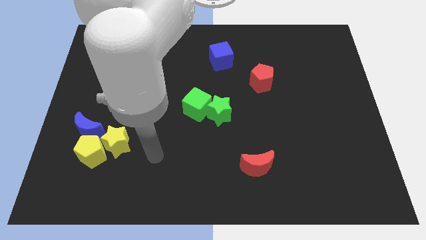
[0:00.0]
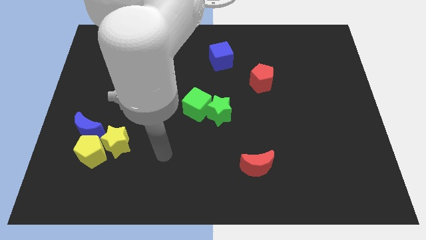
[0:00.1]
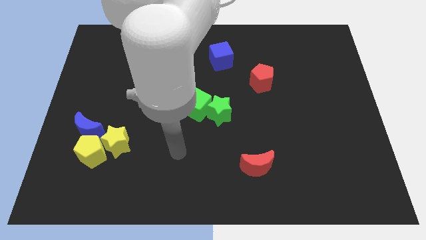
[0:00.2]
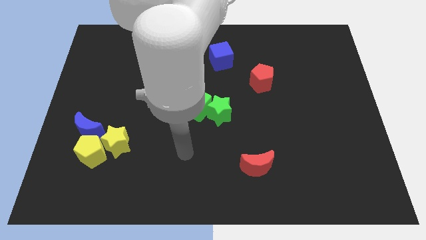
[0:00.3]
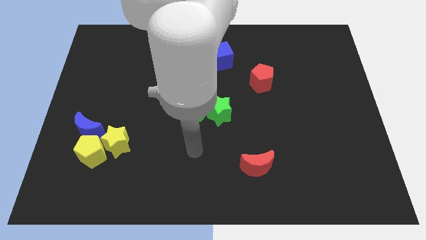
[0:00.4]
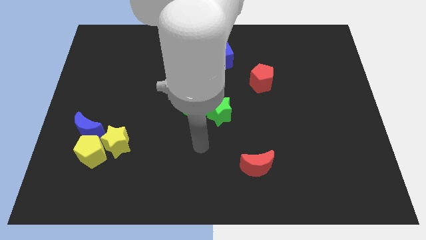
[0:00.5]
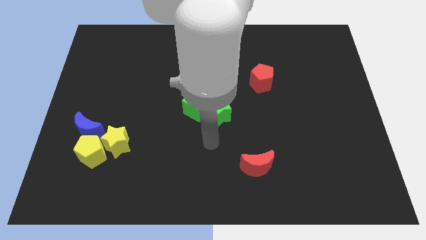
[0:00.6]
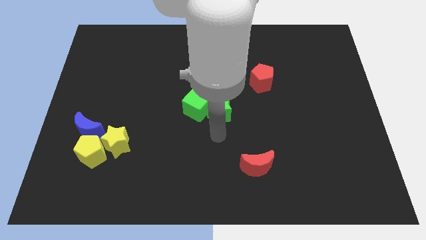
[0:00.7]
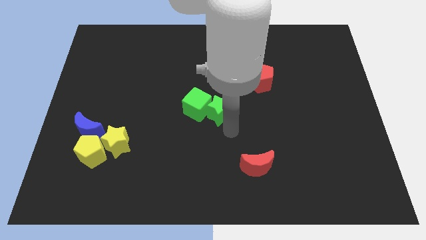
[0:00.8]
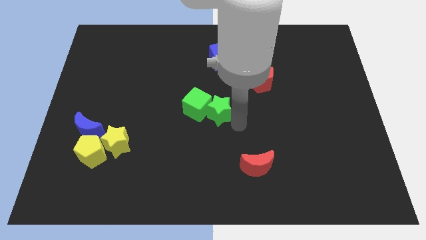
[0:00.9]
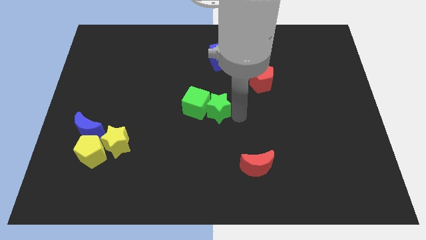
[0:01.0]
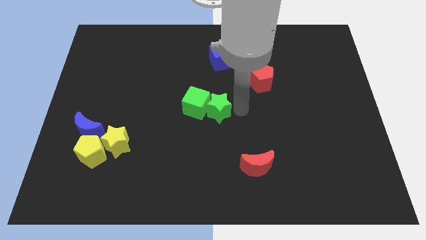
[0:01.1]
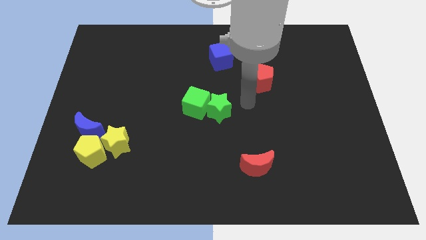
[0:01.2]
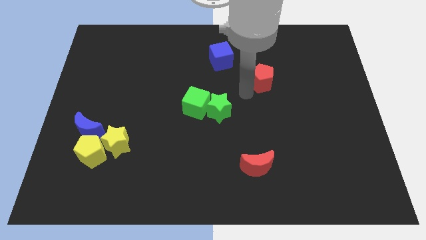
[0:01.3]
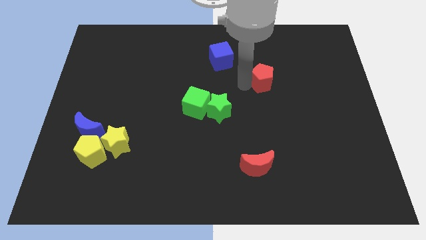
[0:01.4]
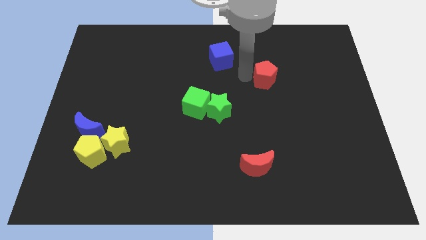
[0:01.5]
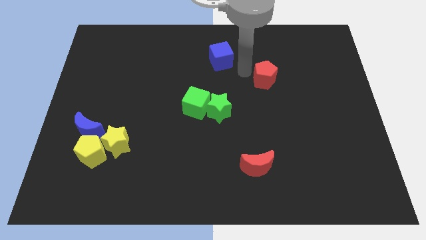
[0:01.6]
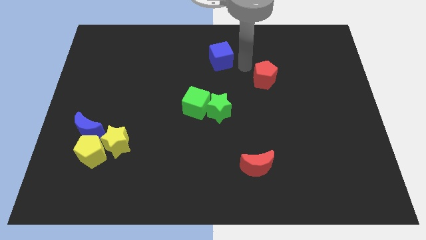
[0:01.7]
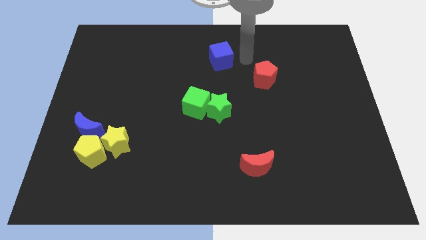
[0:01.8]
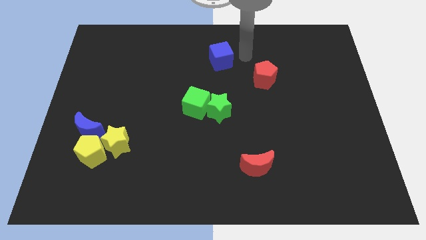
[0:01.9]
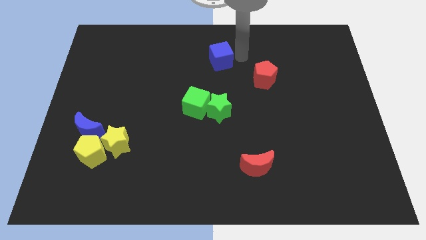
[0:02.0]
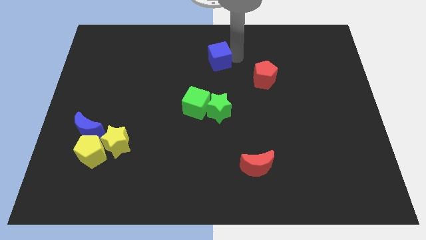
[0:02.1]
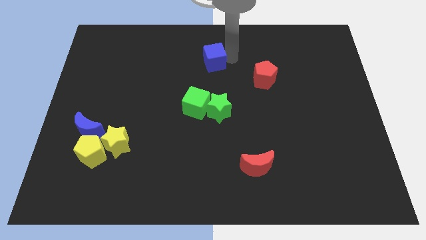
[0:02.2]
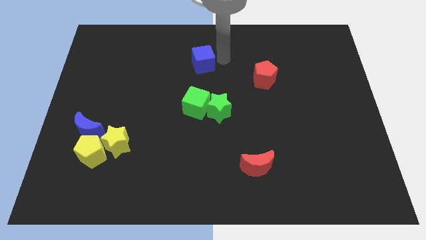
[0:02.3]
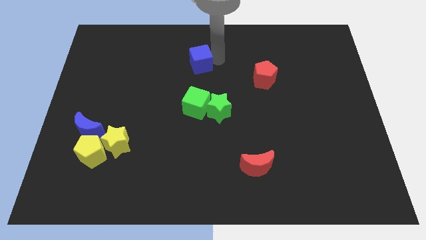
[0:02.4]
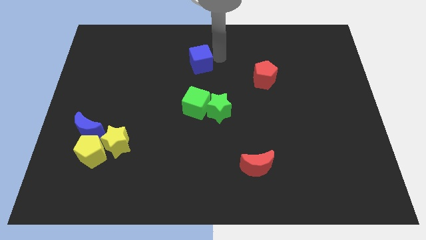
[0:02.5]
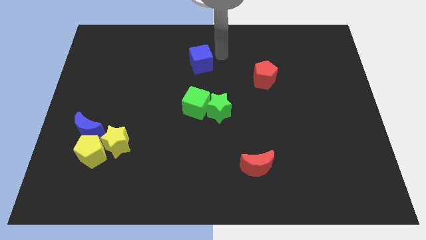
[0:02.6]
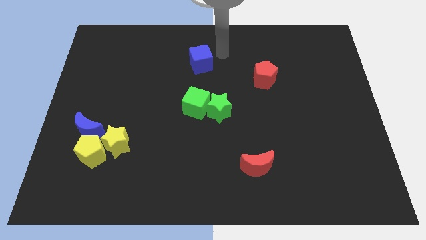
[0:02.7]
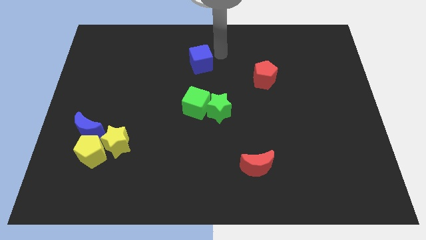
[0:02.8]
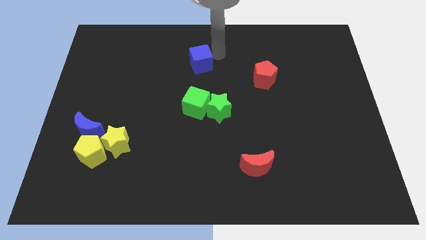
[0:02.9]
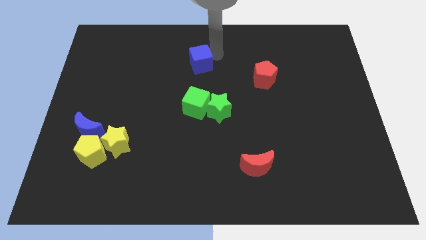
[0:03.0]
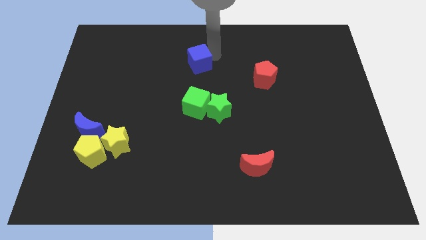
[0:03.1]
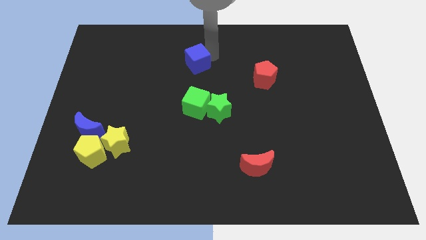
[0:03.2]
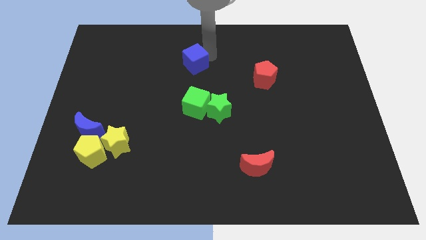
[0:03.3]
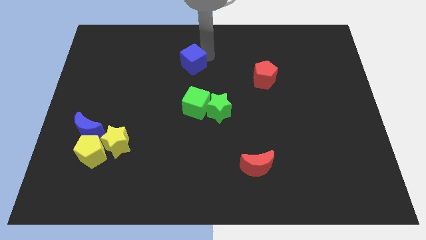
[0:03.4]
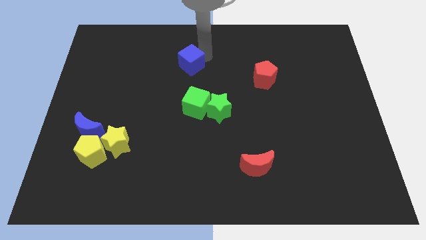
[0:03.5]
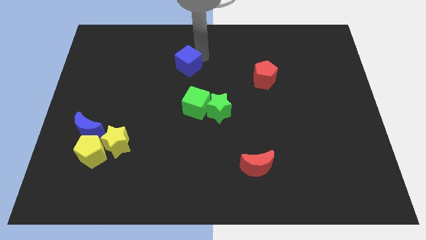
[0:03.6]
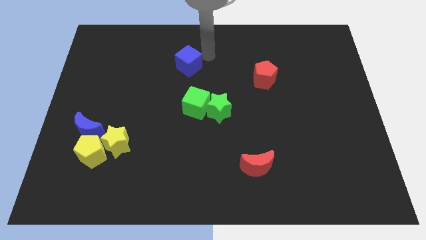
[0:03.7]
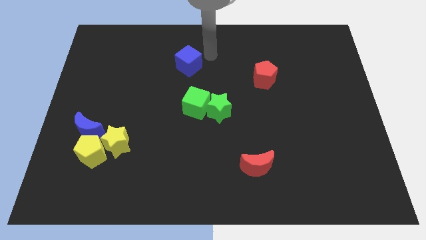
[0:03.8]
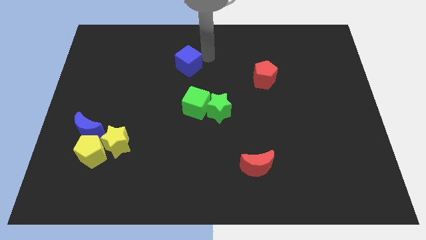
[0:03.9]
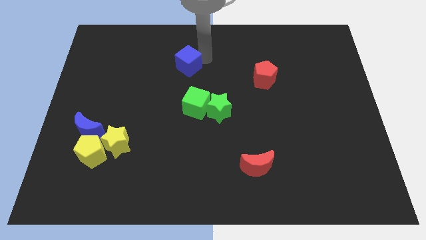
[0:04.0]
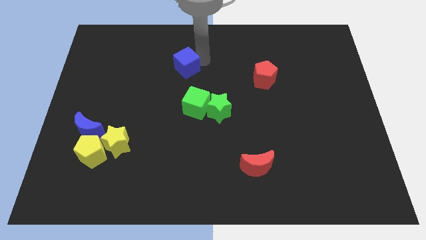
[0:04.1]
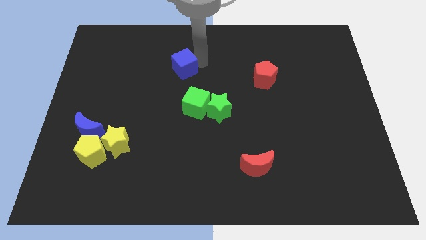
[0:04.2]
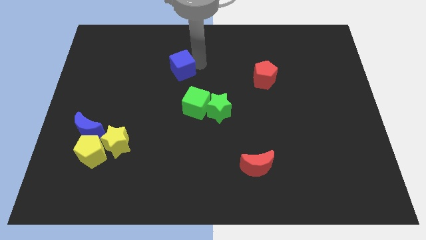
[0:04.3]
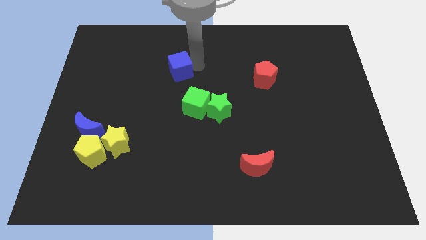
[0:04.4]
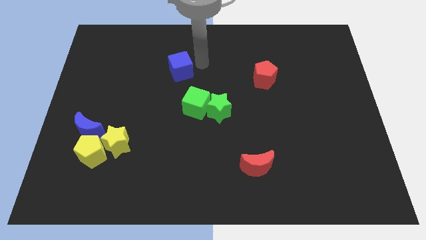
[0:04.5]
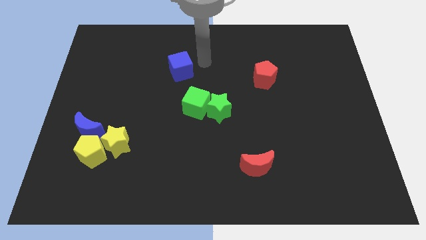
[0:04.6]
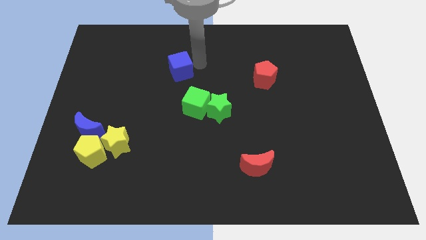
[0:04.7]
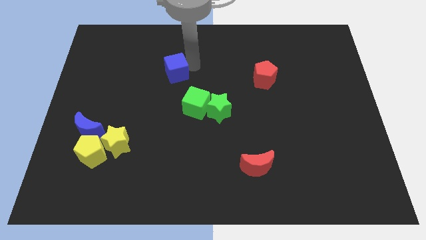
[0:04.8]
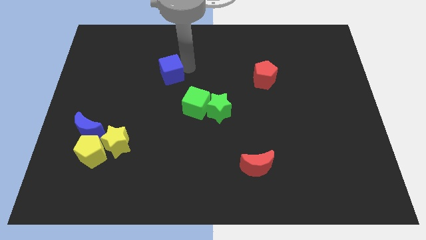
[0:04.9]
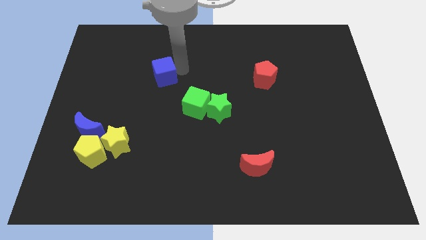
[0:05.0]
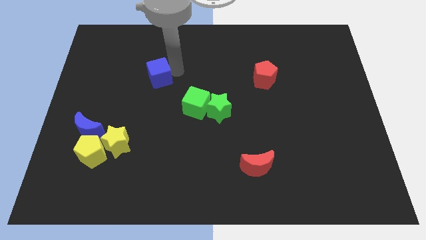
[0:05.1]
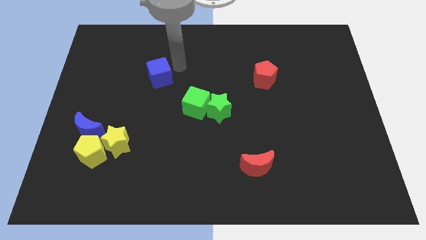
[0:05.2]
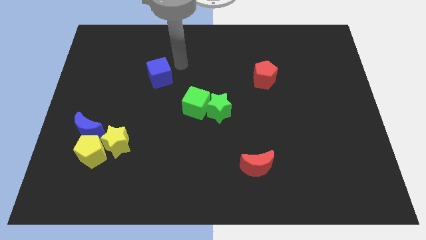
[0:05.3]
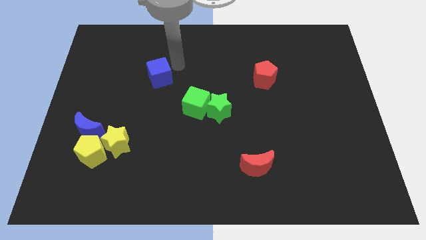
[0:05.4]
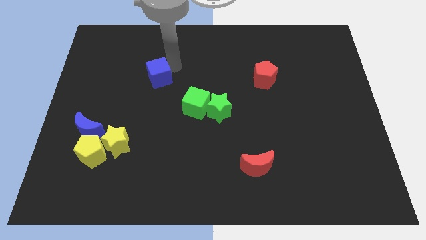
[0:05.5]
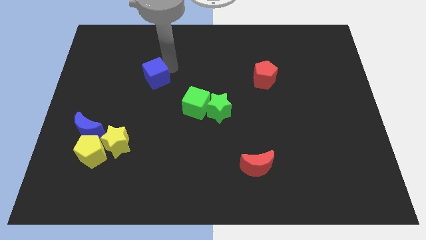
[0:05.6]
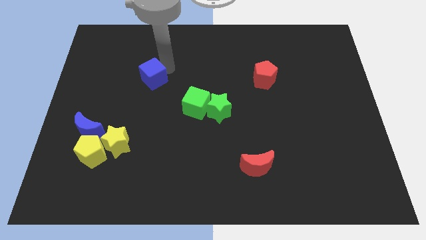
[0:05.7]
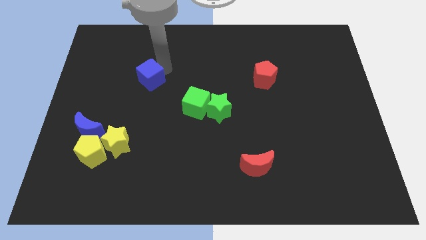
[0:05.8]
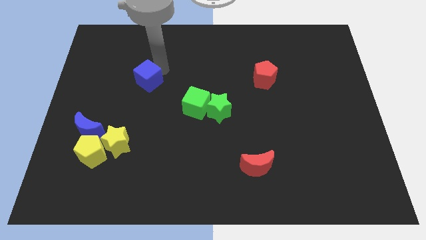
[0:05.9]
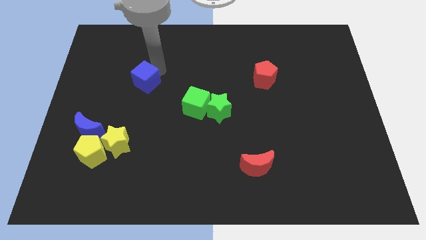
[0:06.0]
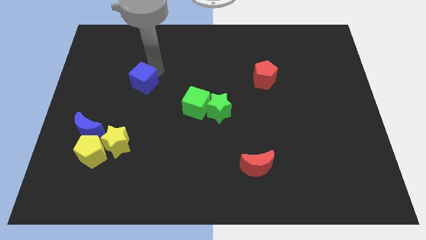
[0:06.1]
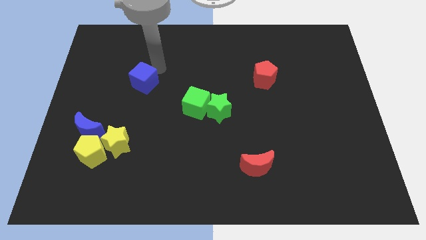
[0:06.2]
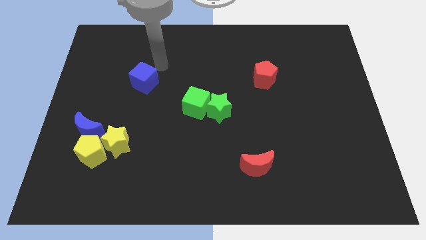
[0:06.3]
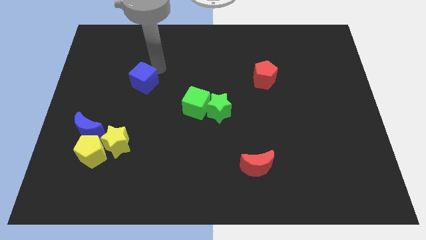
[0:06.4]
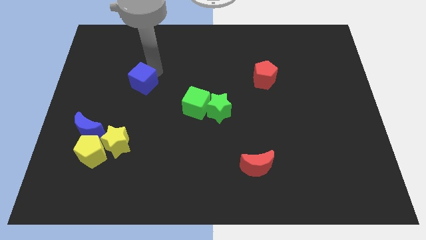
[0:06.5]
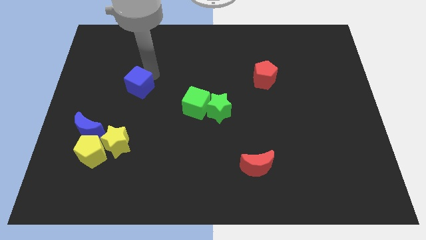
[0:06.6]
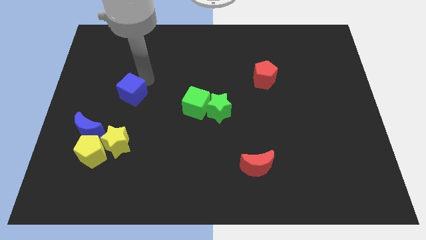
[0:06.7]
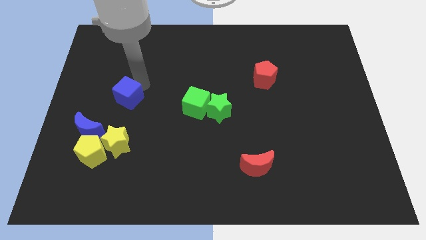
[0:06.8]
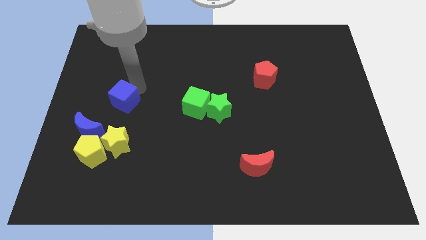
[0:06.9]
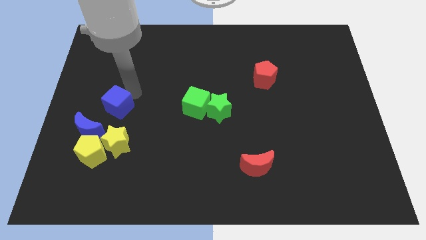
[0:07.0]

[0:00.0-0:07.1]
put the blue cube to the top side of the yellow pentagon

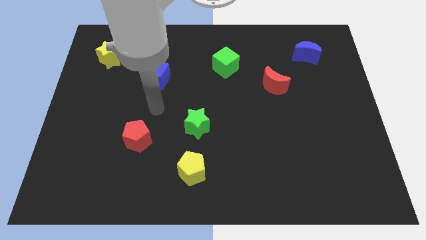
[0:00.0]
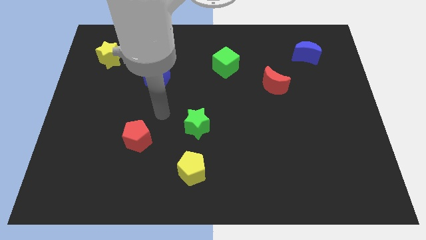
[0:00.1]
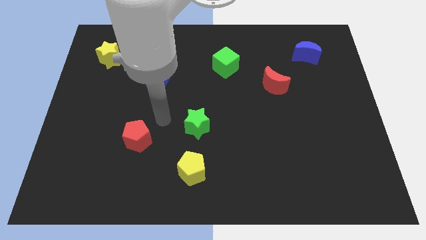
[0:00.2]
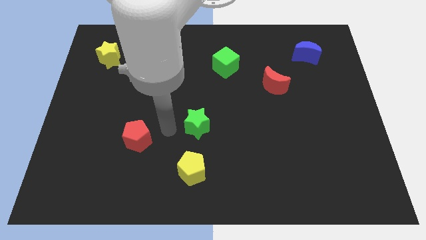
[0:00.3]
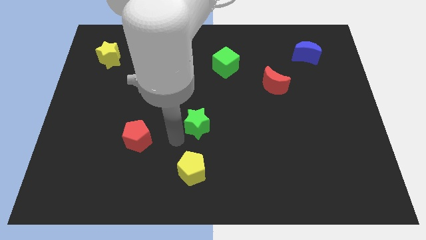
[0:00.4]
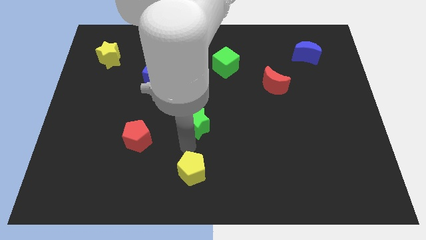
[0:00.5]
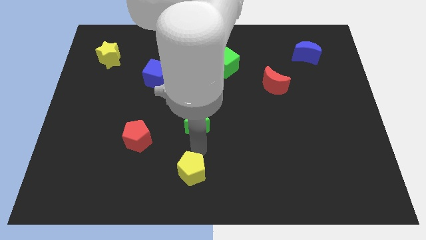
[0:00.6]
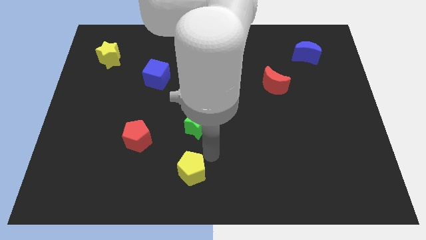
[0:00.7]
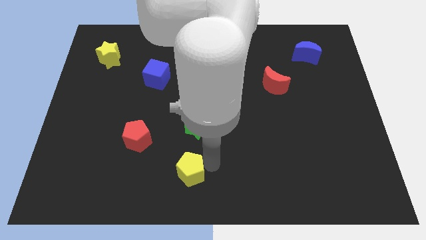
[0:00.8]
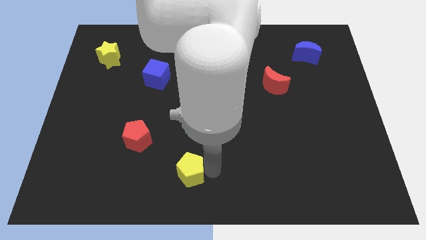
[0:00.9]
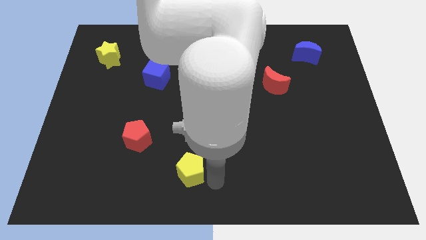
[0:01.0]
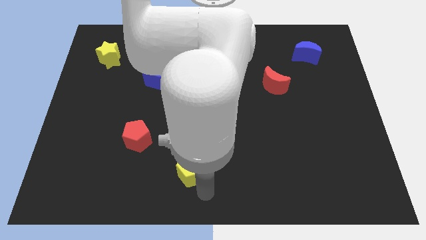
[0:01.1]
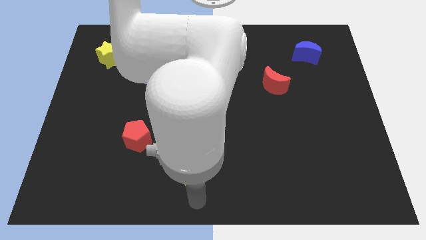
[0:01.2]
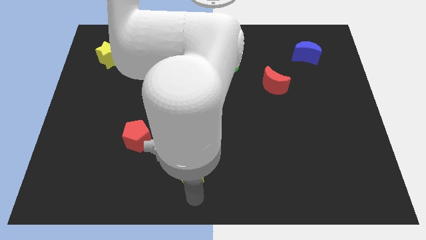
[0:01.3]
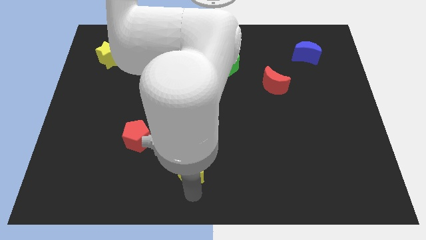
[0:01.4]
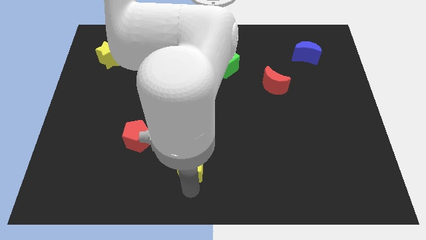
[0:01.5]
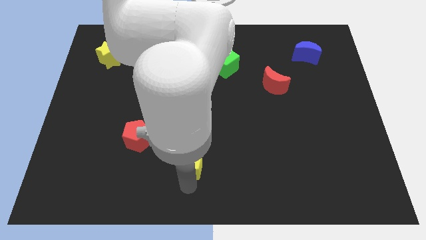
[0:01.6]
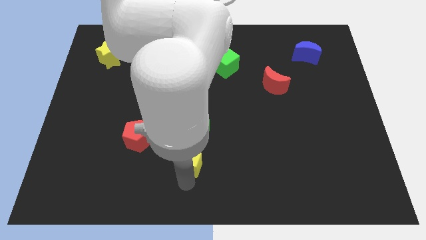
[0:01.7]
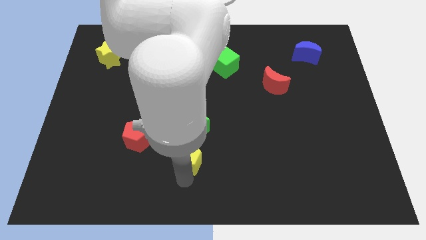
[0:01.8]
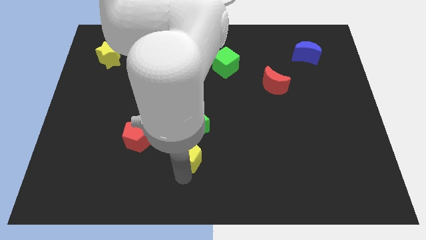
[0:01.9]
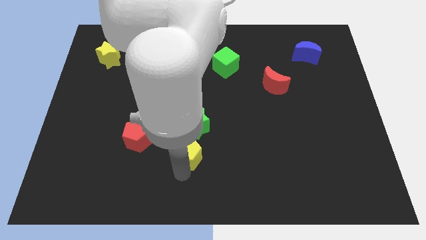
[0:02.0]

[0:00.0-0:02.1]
slide the yellow pentagon to the right side of the red pentagon
